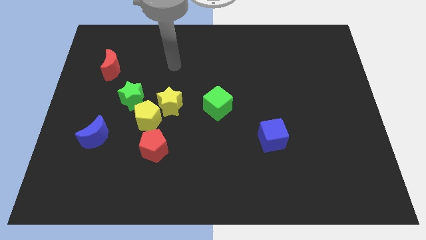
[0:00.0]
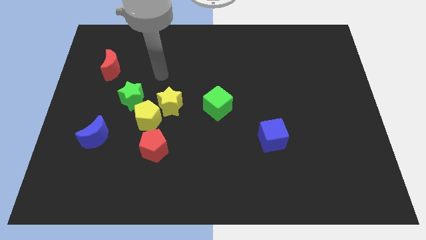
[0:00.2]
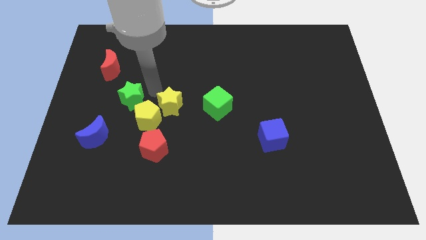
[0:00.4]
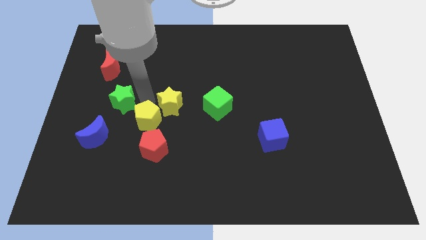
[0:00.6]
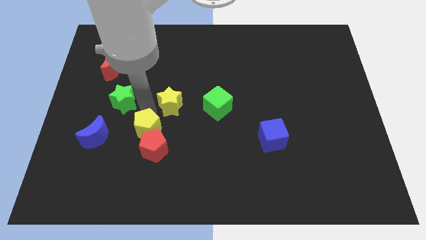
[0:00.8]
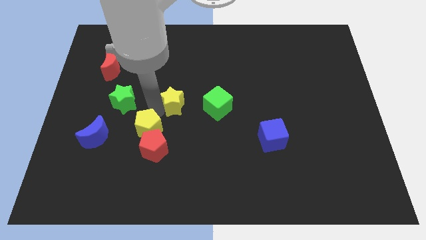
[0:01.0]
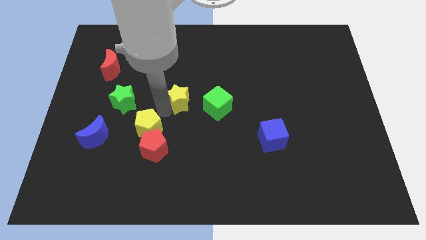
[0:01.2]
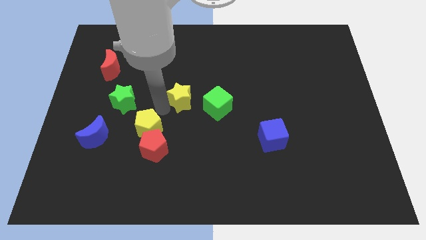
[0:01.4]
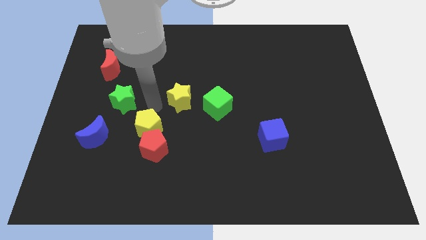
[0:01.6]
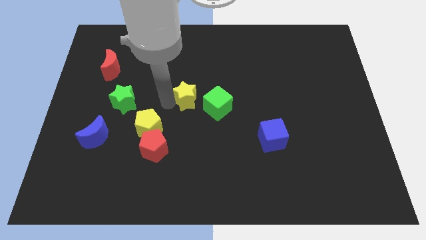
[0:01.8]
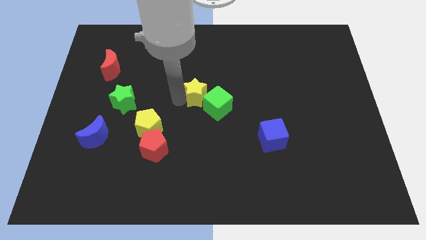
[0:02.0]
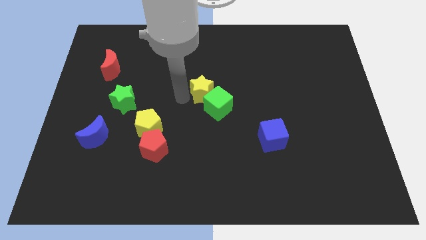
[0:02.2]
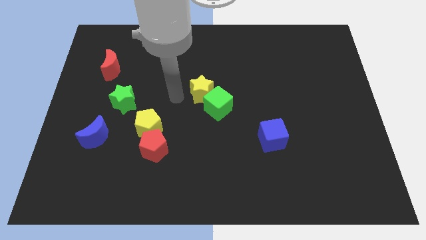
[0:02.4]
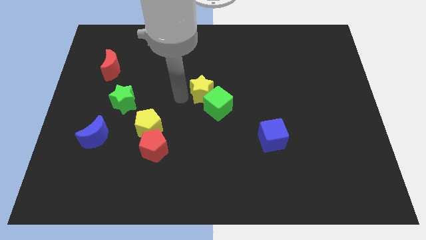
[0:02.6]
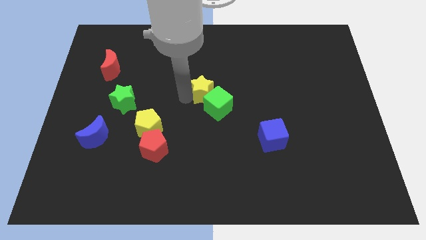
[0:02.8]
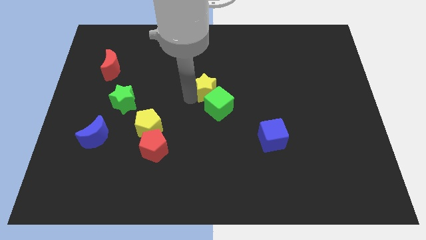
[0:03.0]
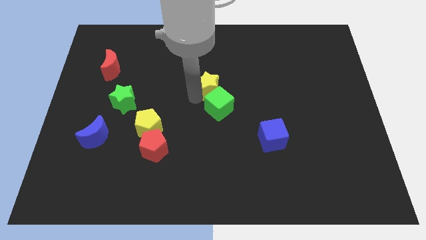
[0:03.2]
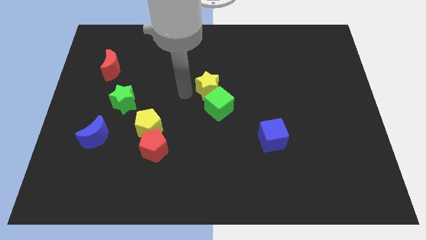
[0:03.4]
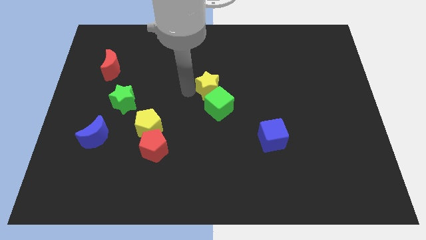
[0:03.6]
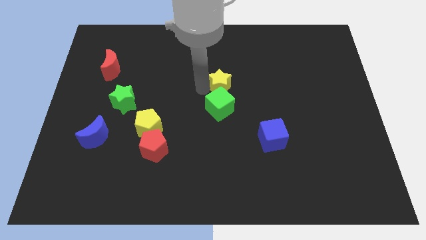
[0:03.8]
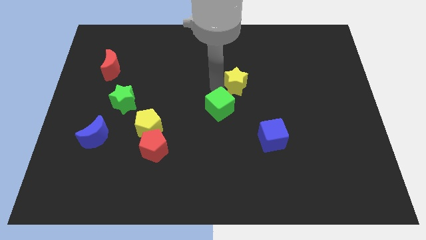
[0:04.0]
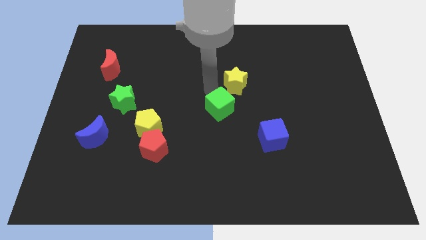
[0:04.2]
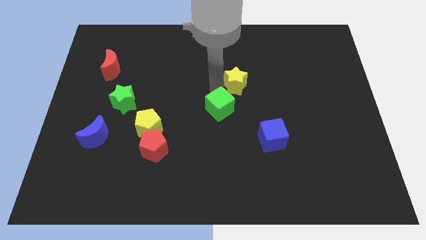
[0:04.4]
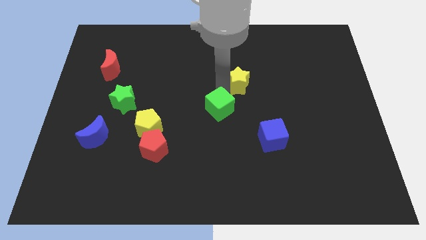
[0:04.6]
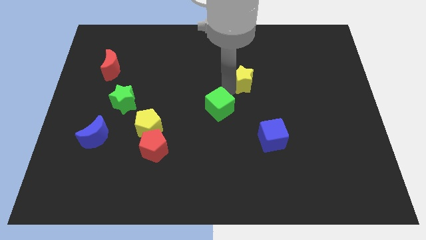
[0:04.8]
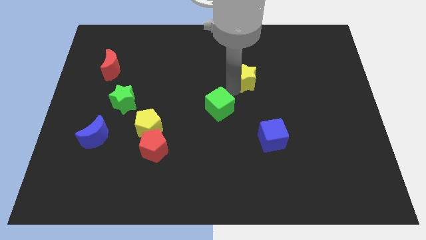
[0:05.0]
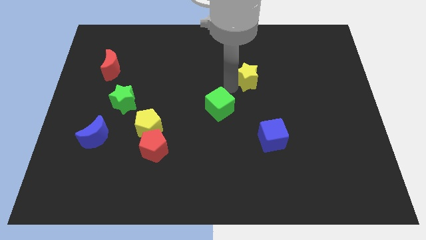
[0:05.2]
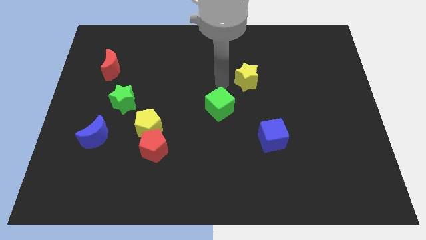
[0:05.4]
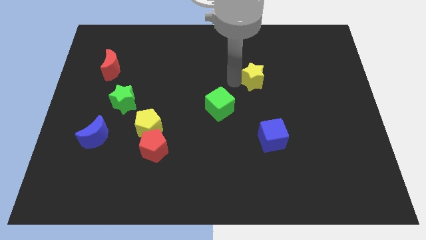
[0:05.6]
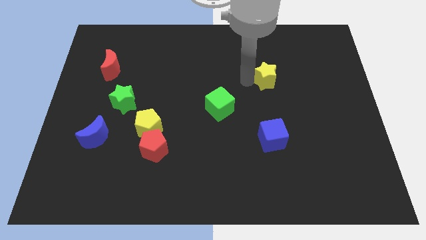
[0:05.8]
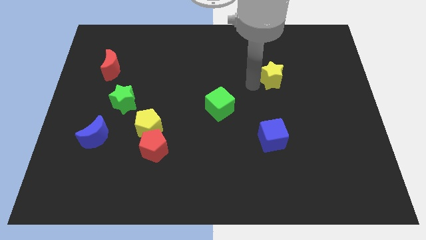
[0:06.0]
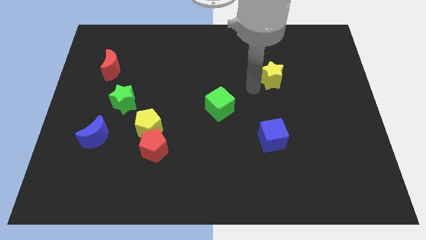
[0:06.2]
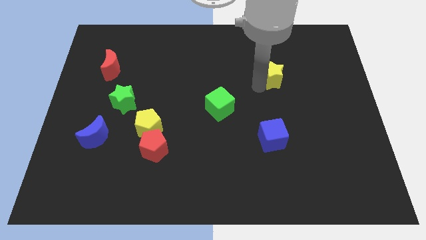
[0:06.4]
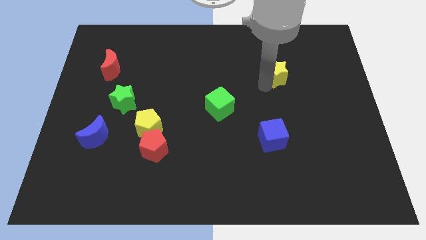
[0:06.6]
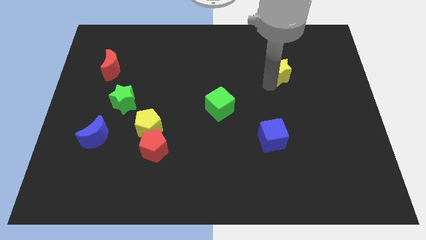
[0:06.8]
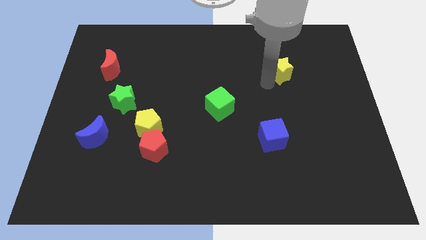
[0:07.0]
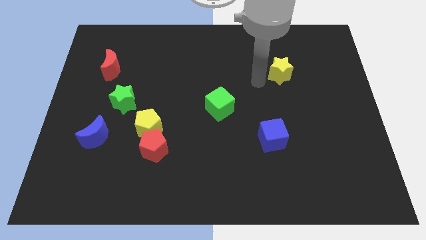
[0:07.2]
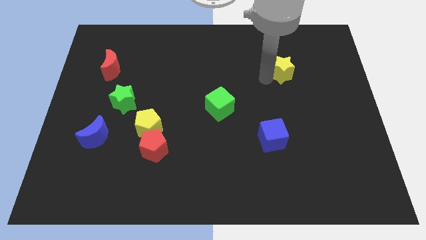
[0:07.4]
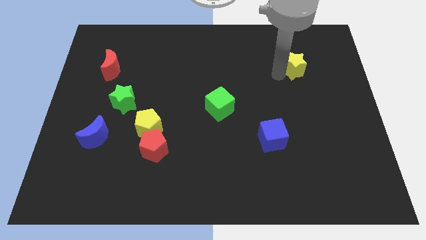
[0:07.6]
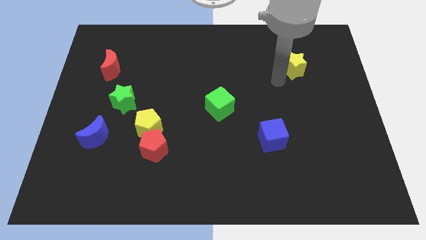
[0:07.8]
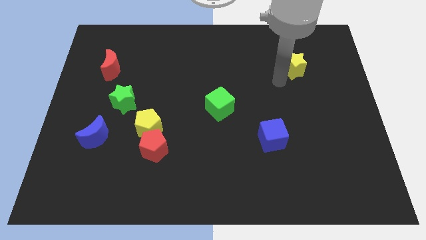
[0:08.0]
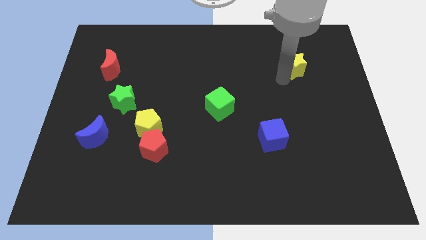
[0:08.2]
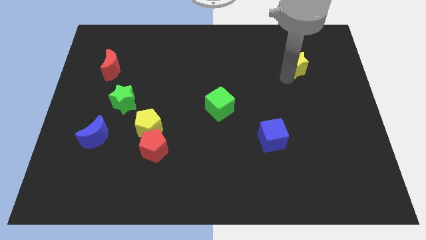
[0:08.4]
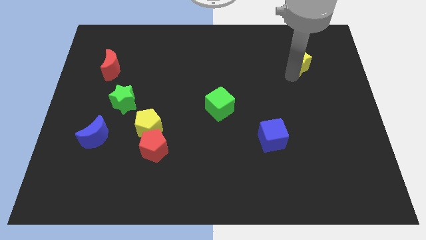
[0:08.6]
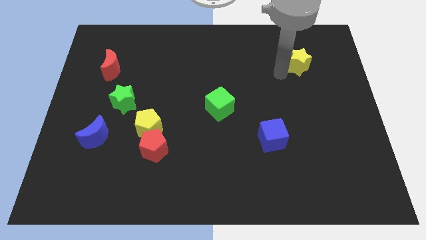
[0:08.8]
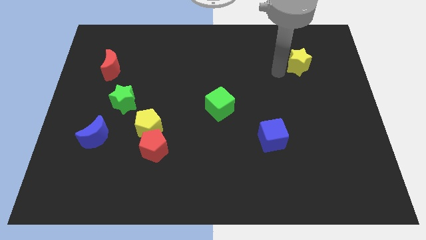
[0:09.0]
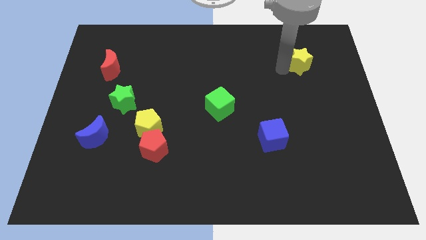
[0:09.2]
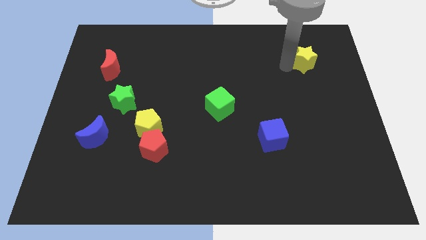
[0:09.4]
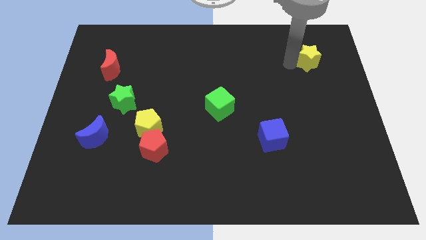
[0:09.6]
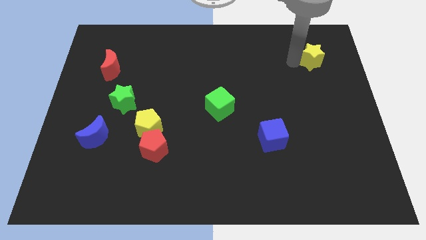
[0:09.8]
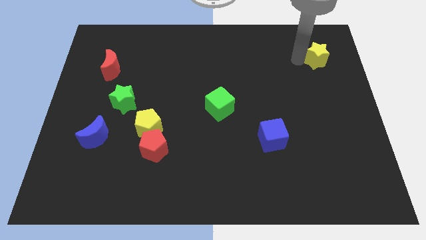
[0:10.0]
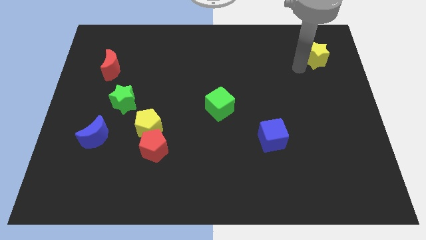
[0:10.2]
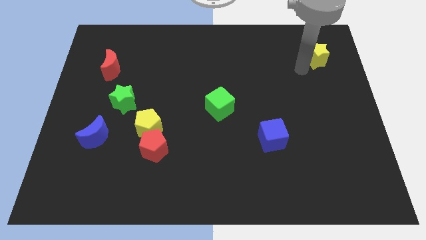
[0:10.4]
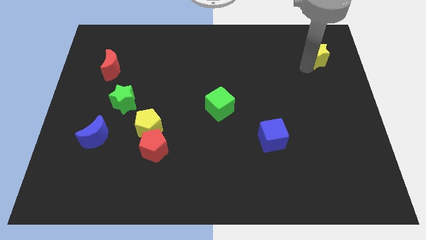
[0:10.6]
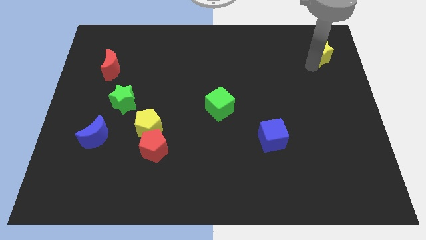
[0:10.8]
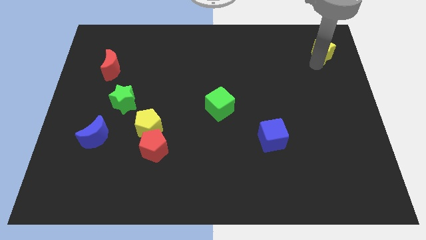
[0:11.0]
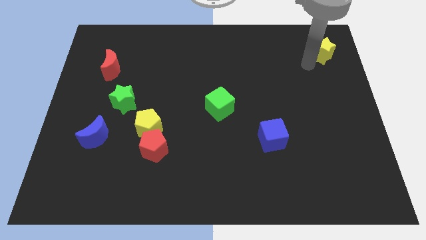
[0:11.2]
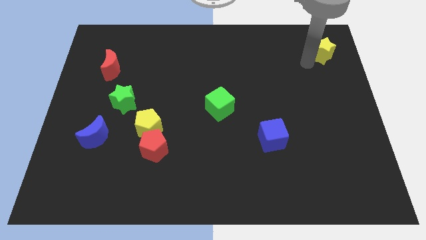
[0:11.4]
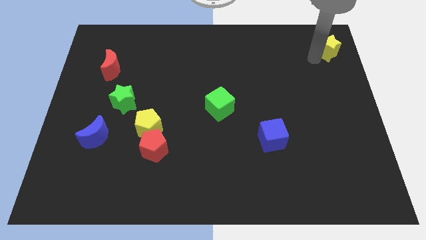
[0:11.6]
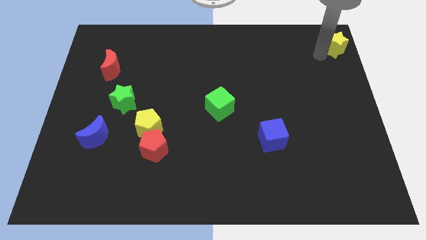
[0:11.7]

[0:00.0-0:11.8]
move the yellow star to the top right
